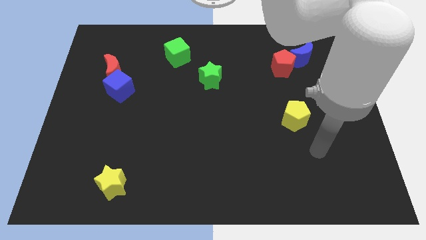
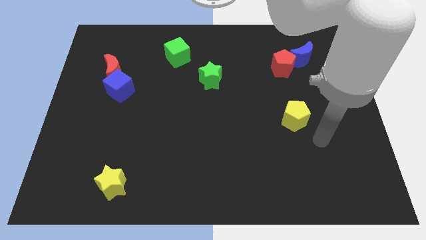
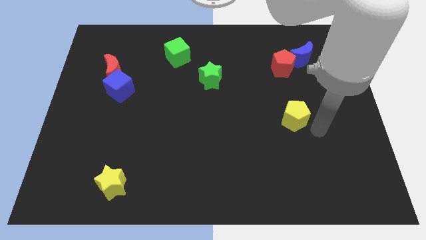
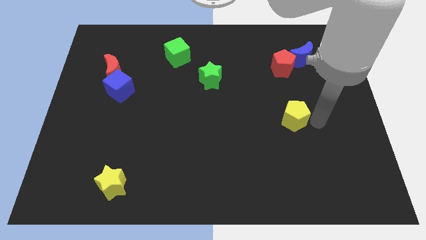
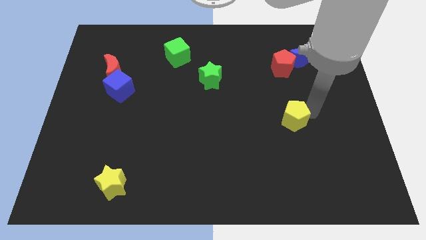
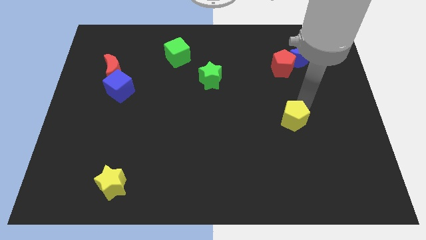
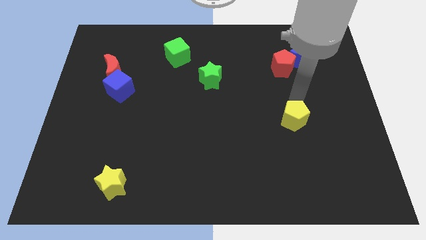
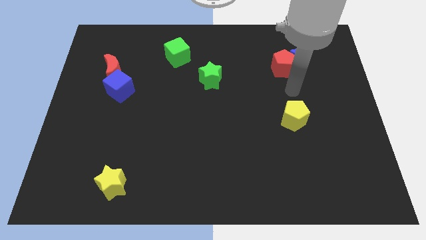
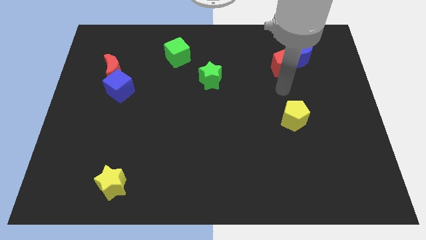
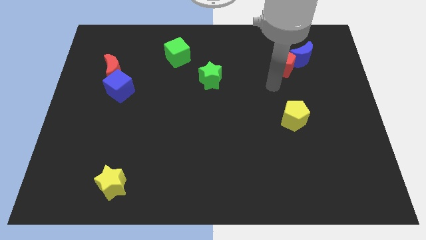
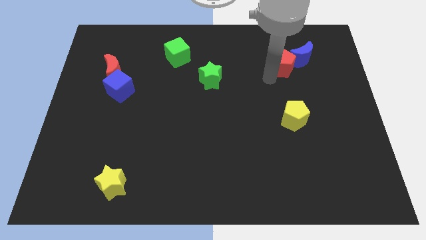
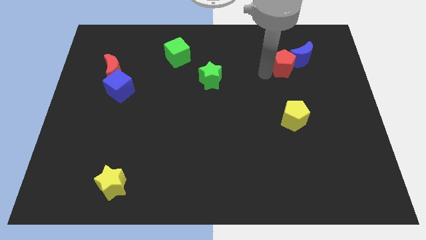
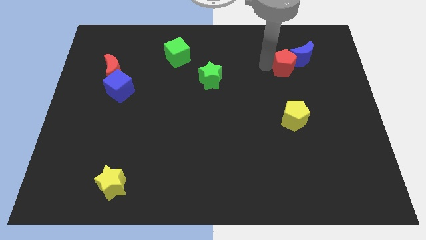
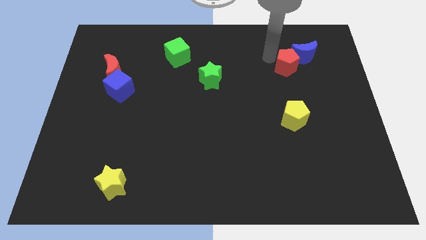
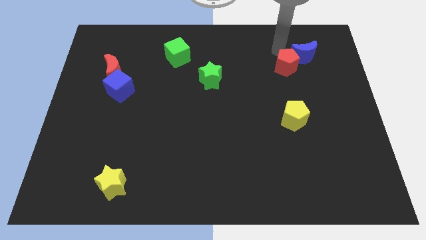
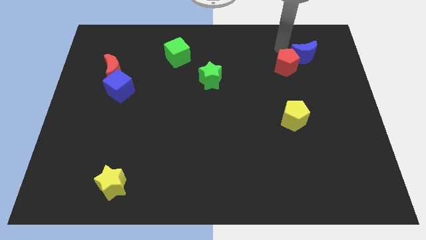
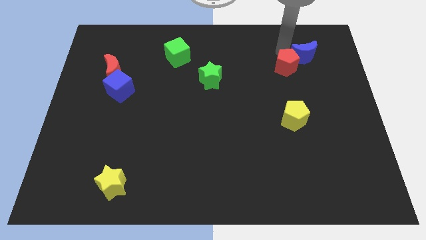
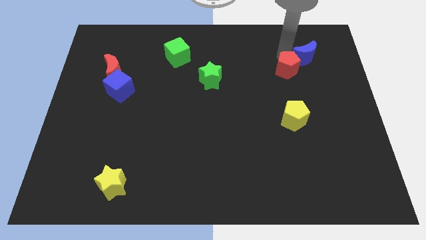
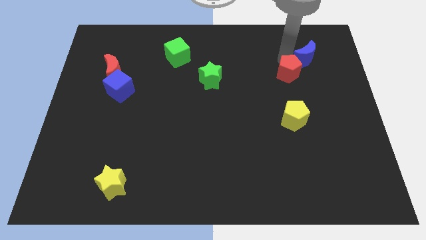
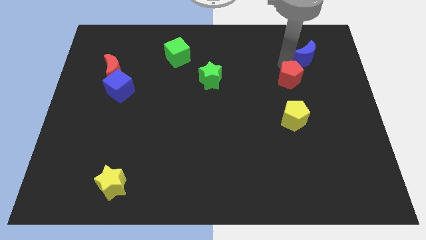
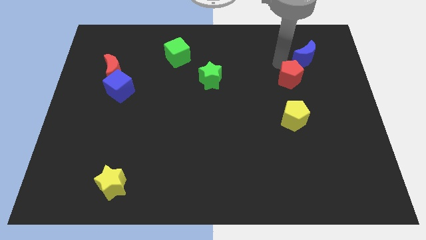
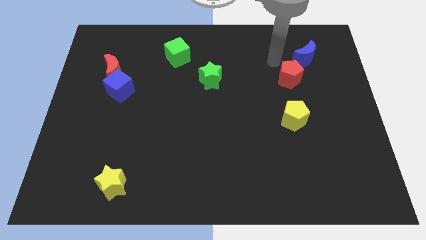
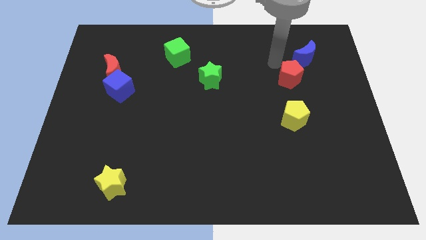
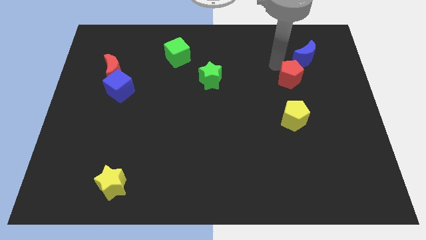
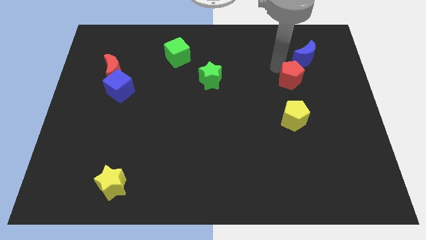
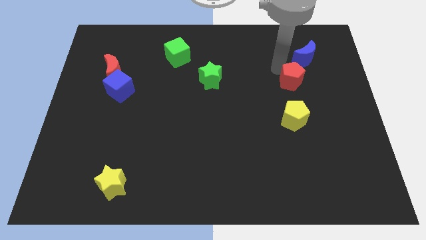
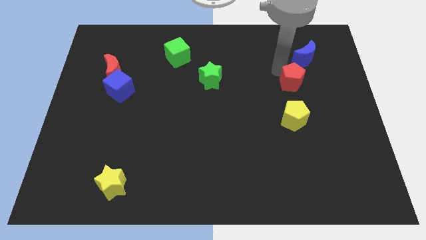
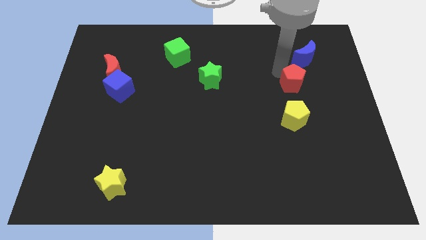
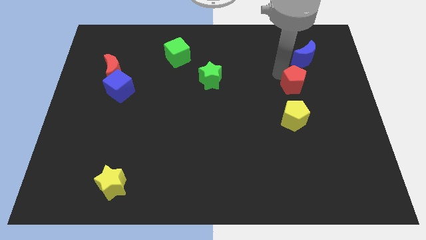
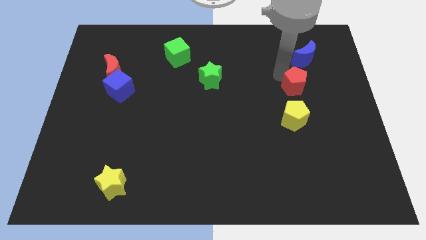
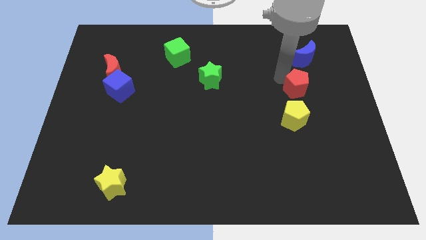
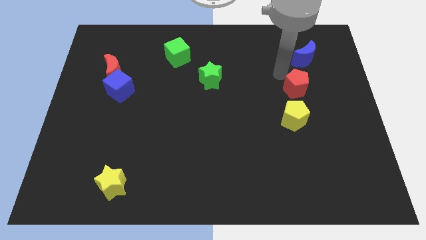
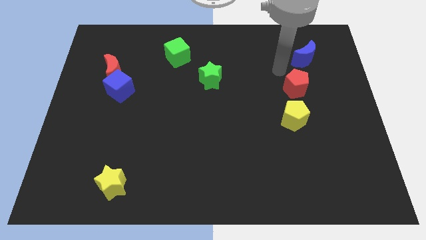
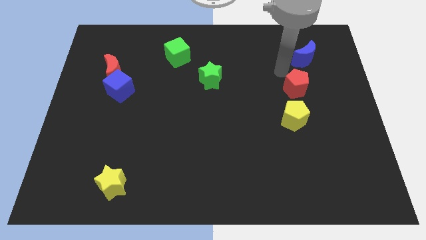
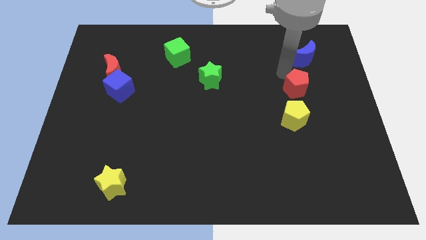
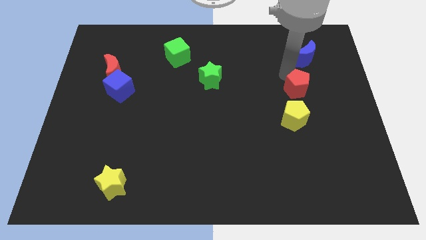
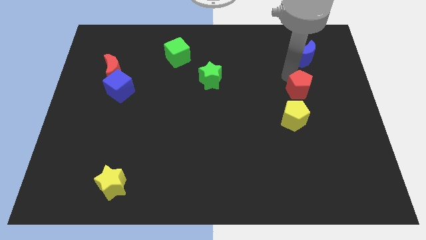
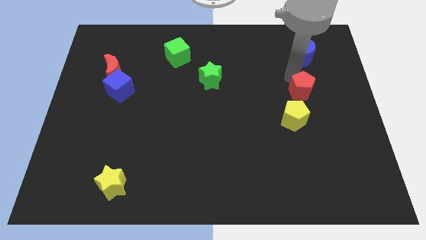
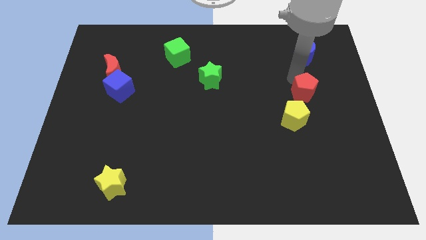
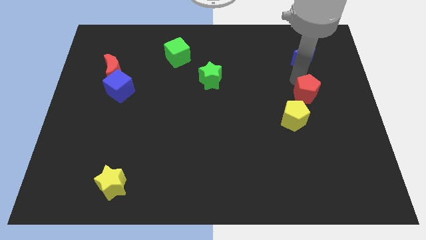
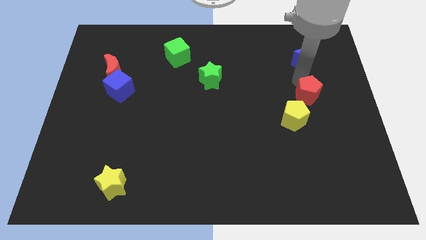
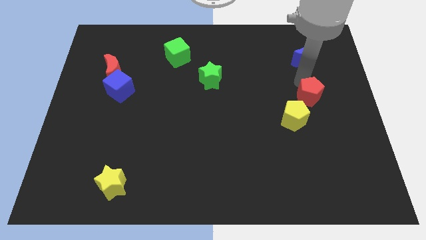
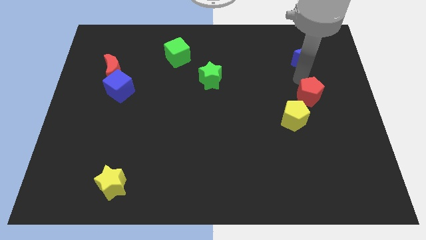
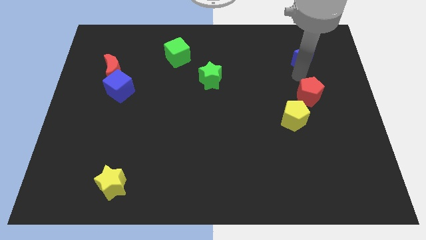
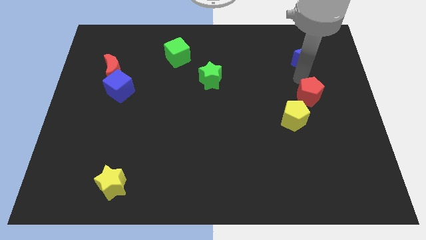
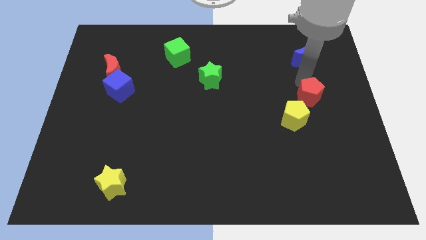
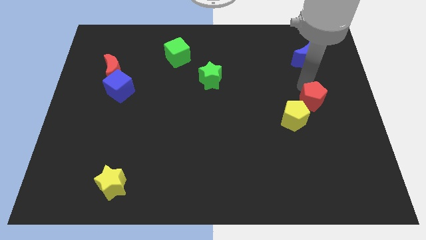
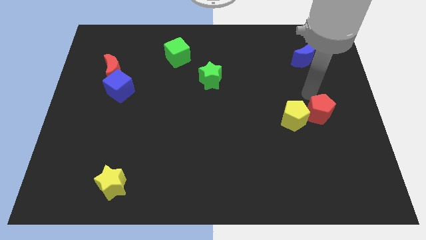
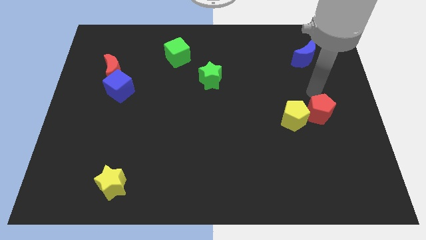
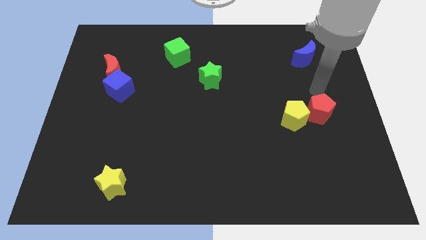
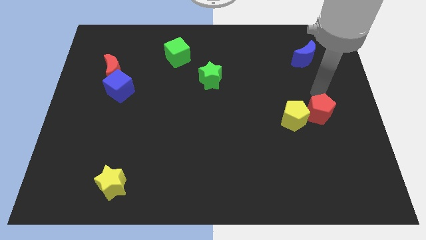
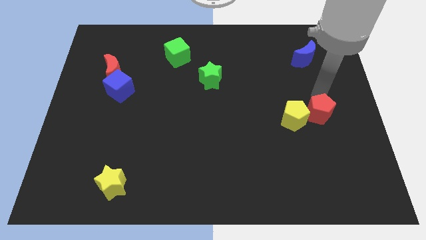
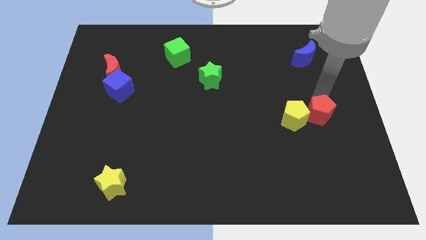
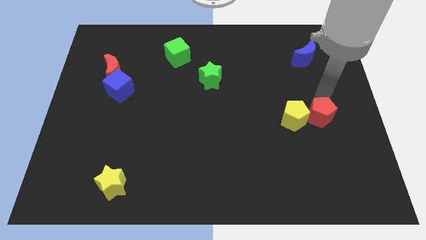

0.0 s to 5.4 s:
put the red pentagon to the bottom right of the yellow pentagon

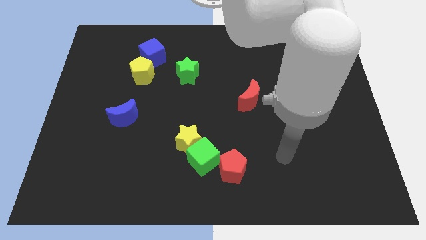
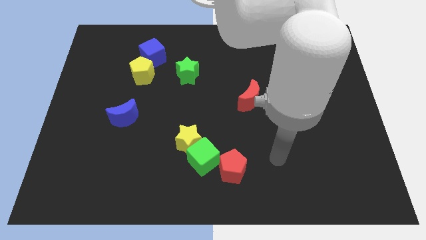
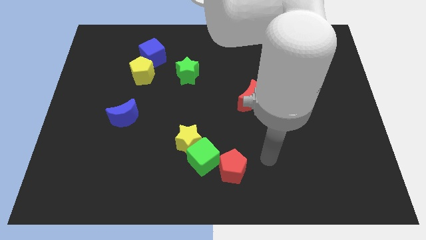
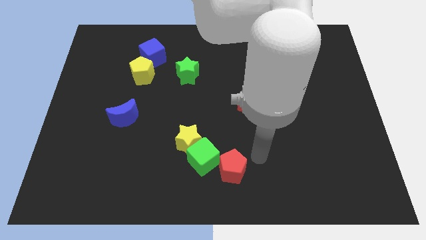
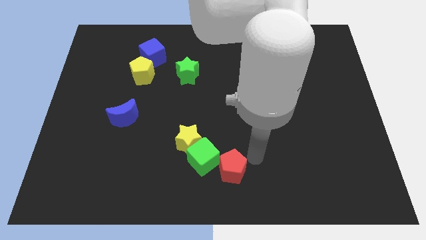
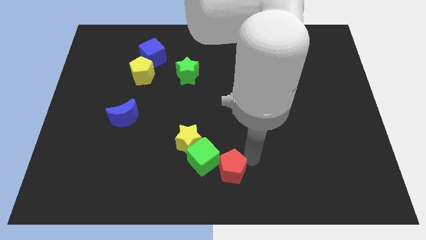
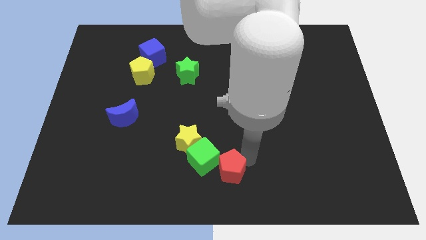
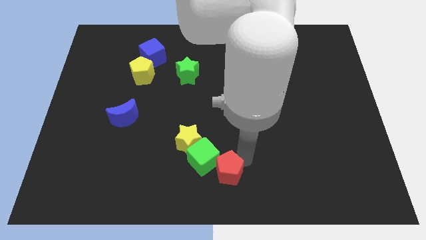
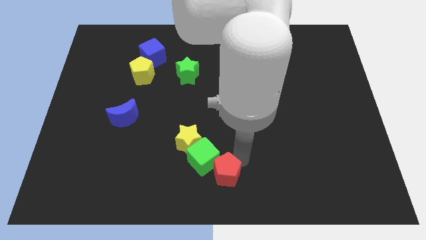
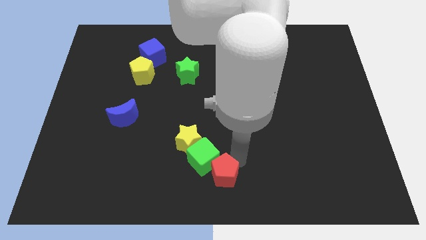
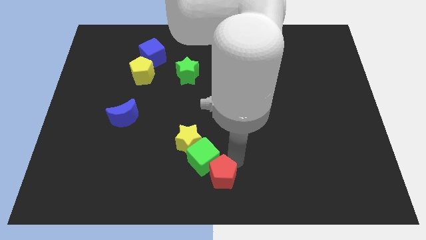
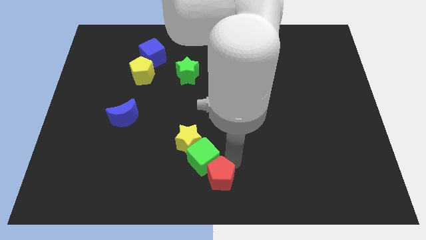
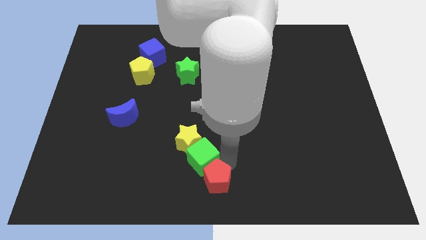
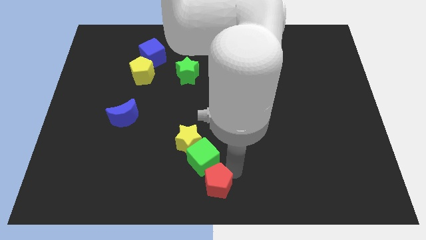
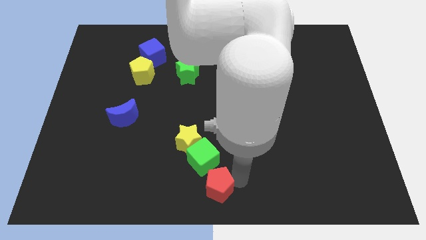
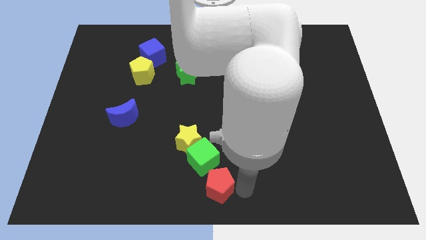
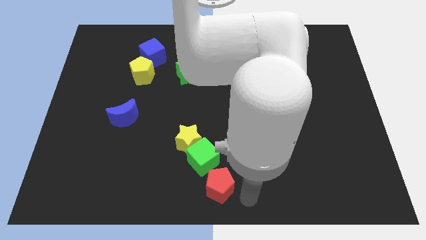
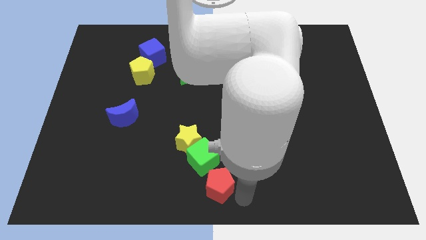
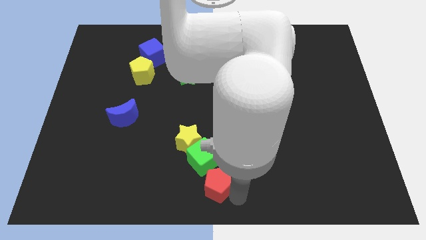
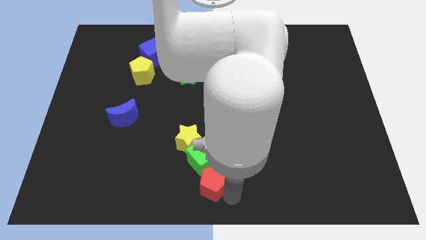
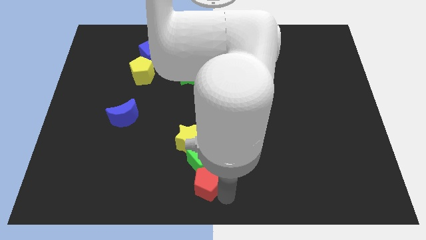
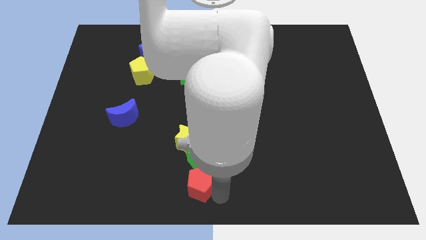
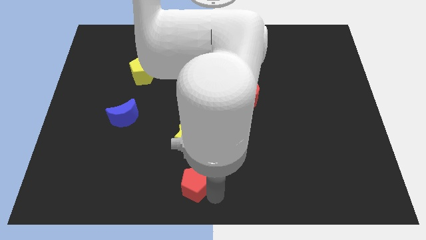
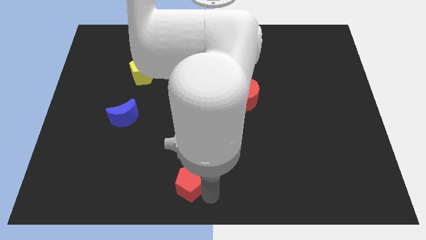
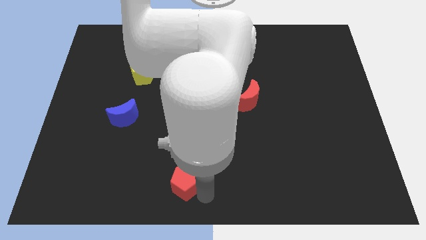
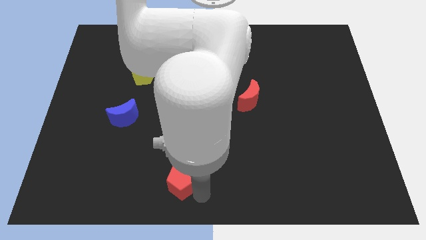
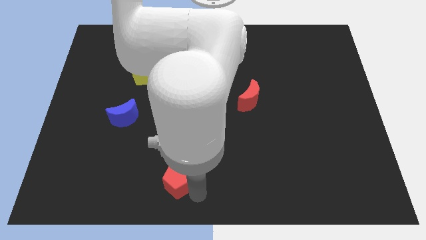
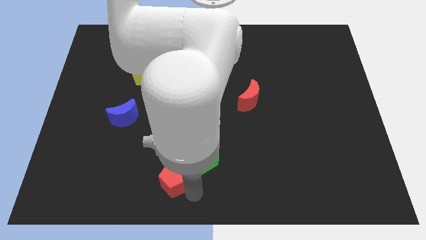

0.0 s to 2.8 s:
put the red pentagon diagonally down and to the left of the yellow star

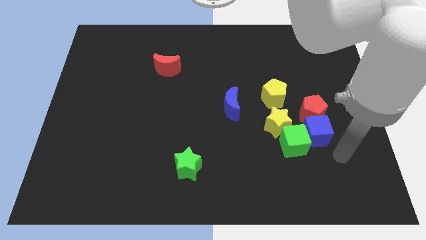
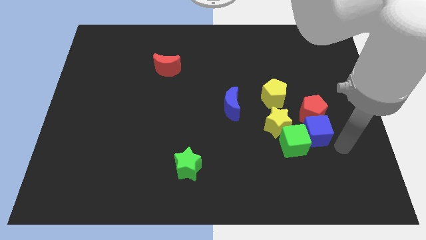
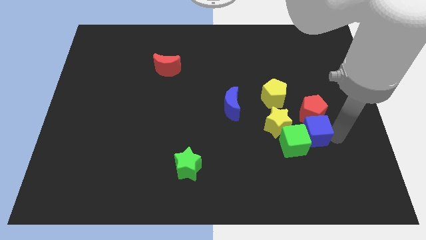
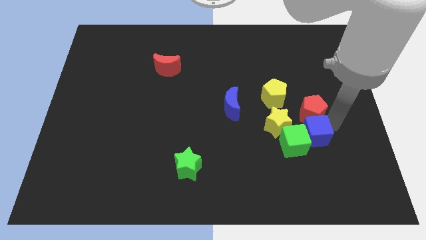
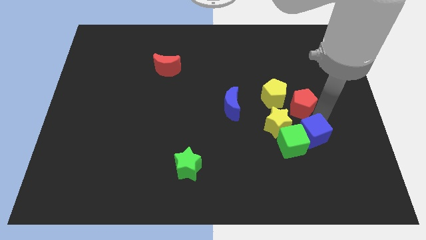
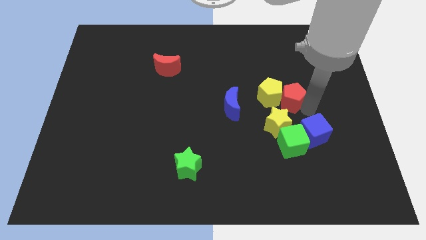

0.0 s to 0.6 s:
put the yellow pentagon to the top right side of the blue moon
